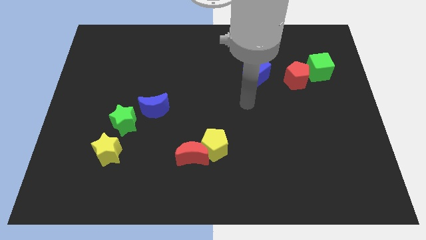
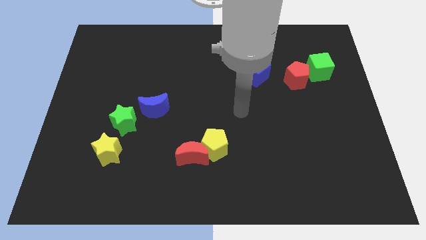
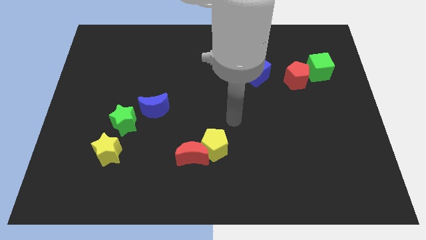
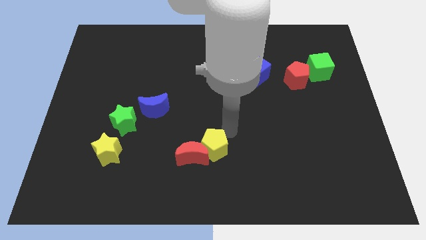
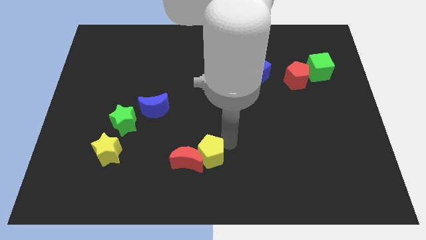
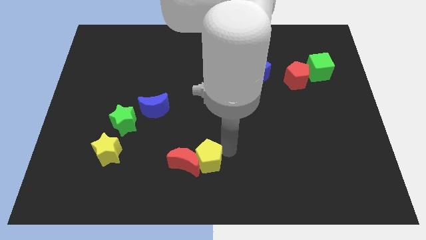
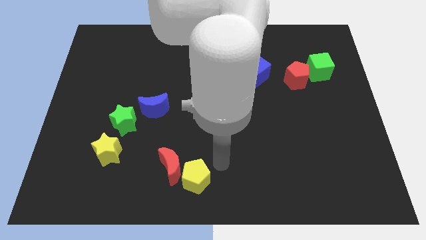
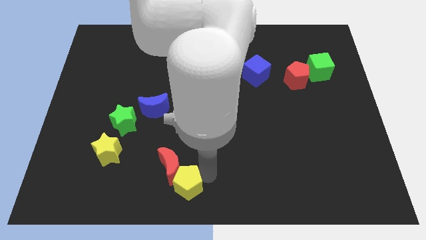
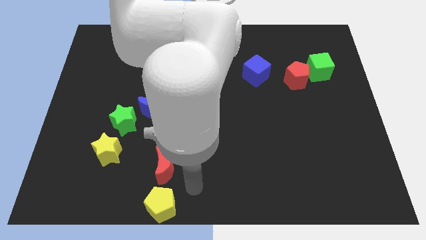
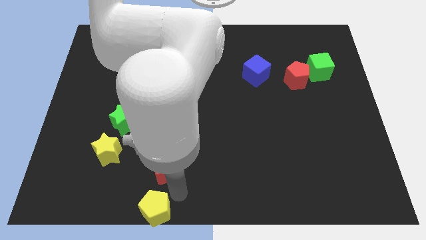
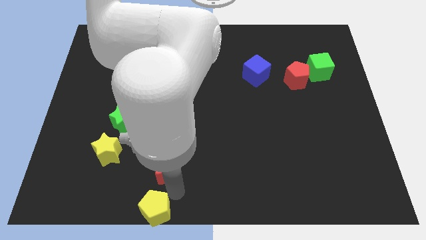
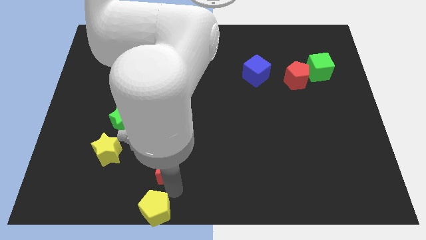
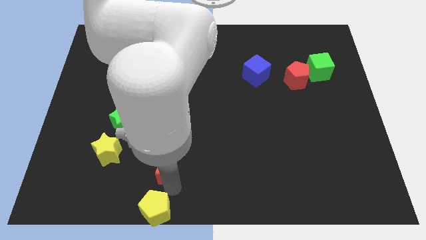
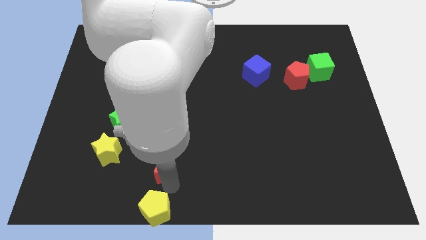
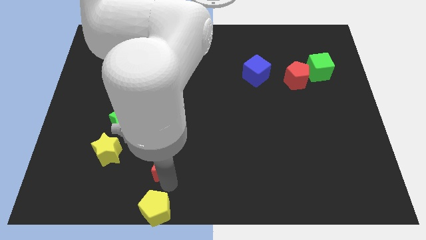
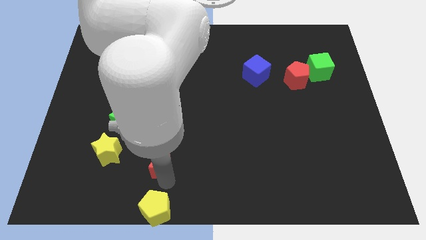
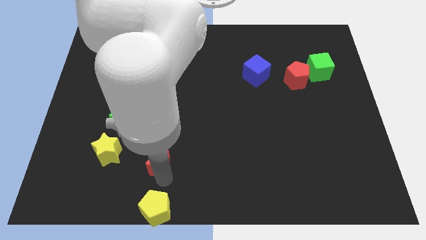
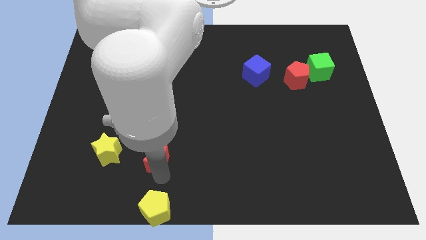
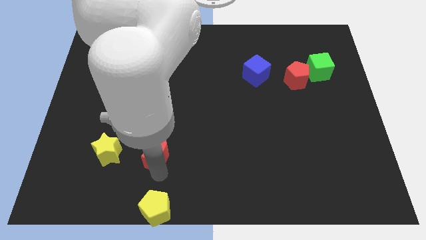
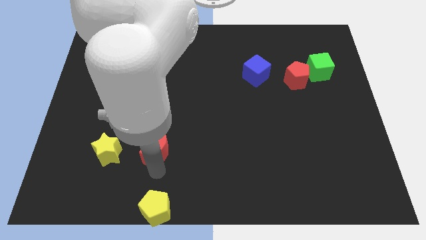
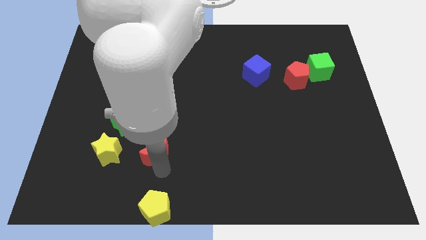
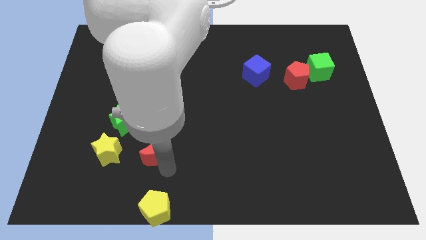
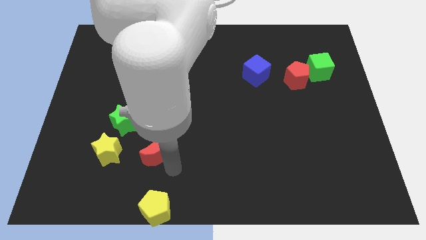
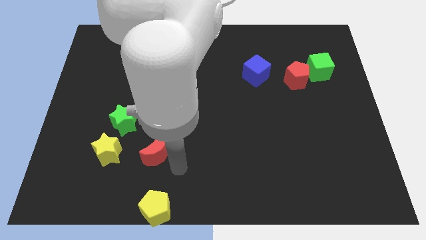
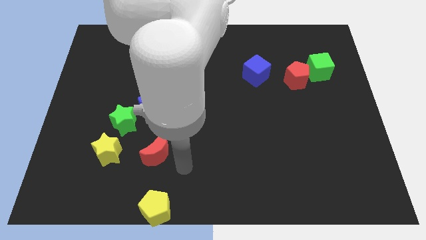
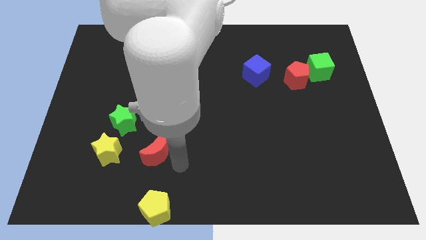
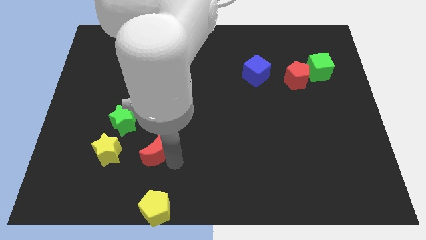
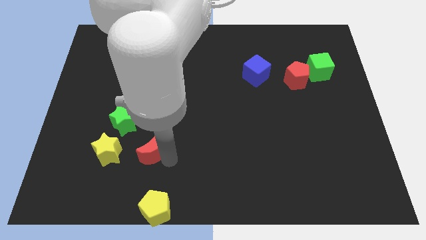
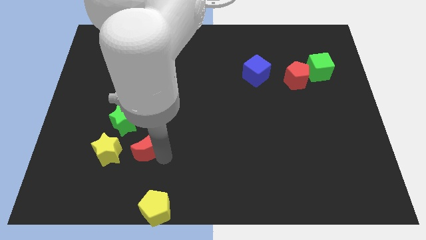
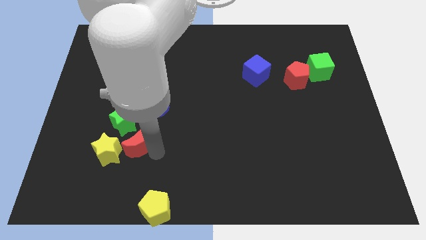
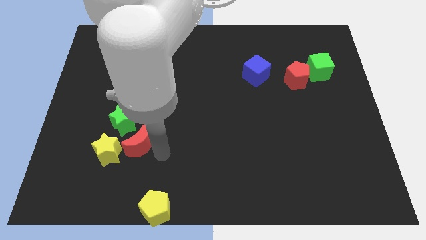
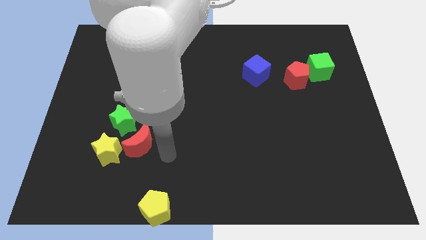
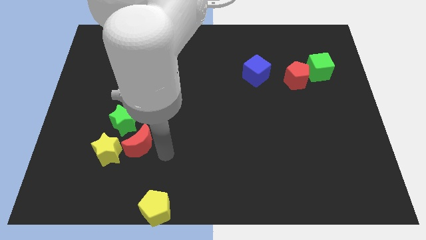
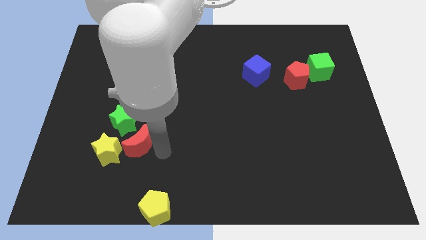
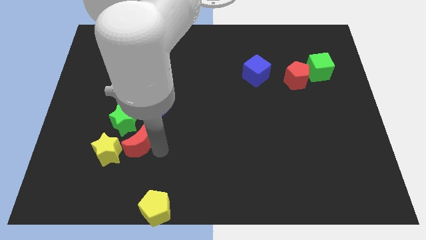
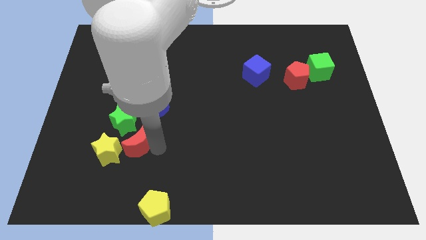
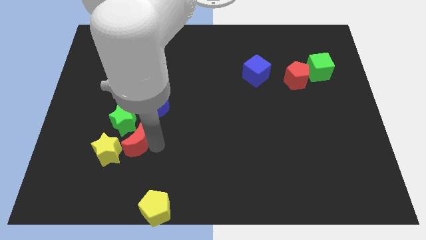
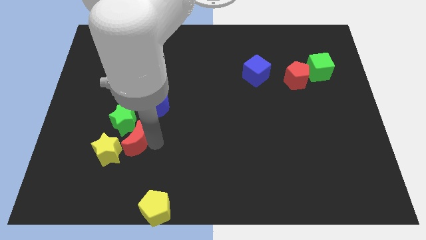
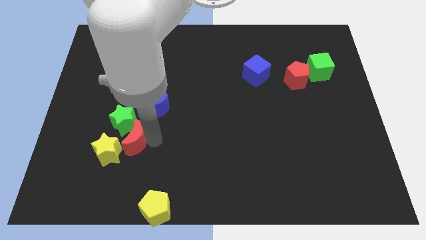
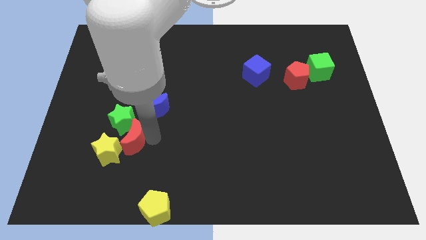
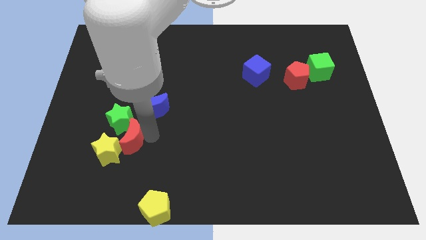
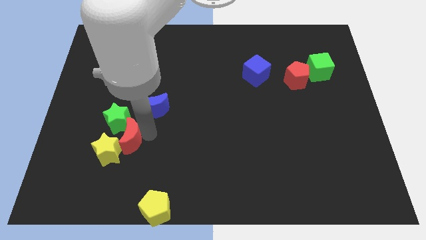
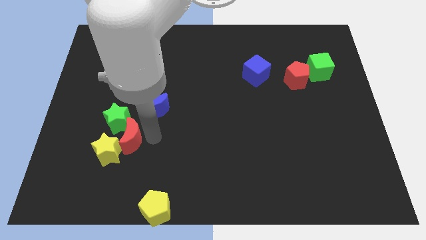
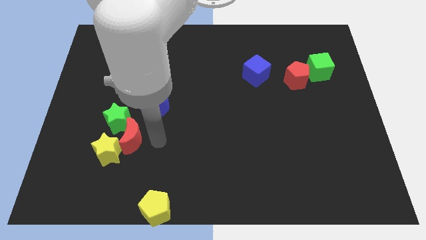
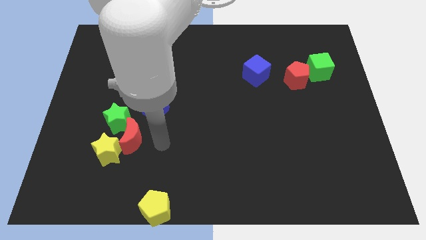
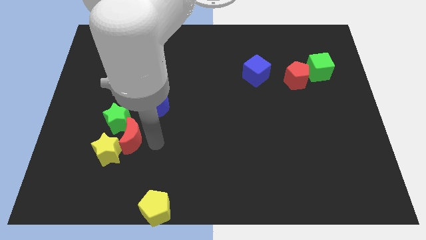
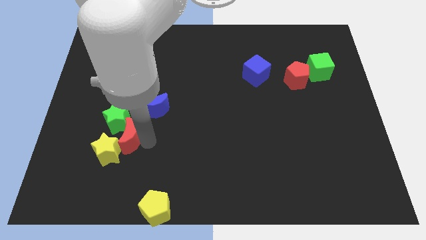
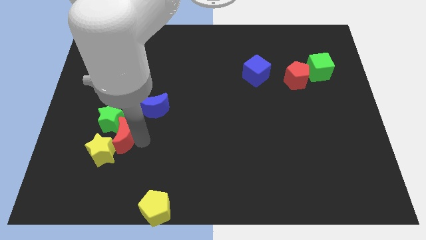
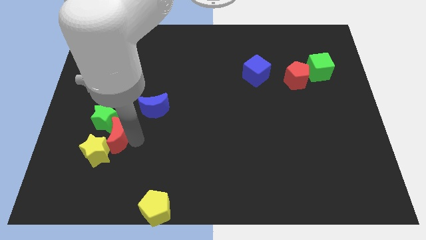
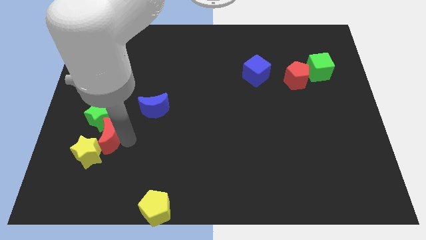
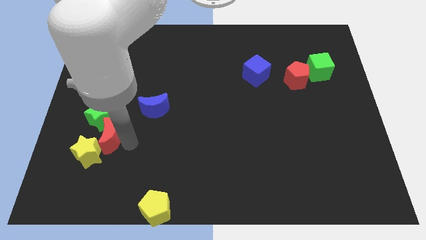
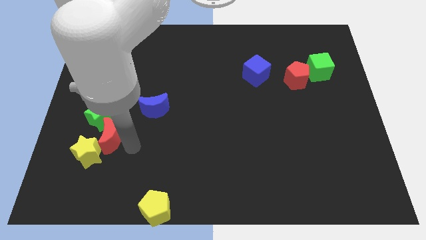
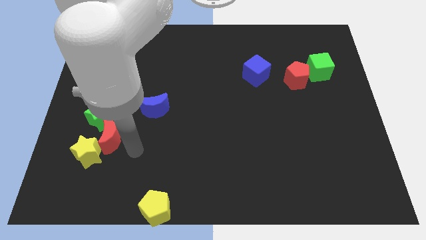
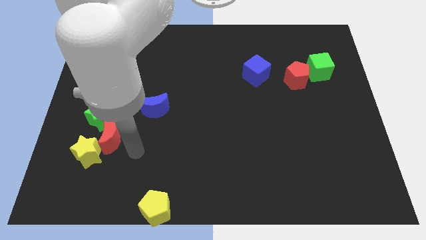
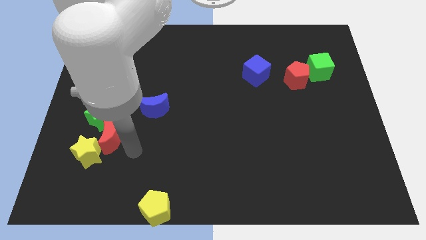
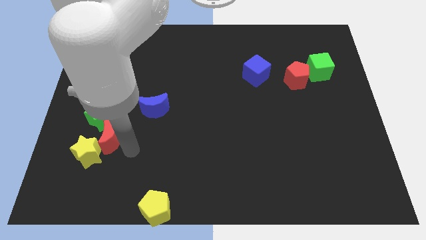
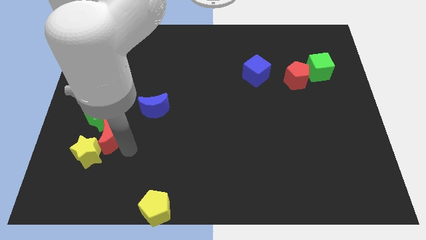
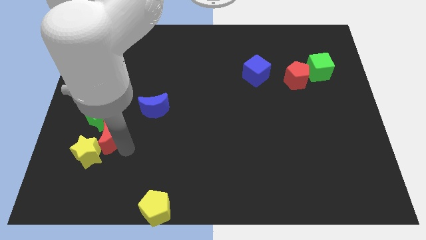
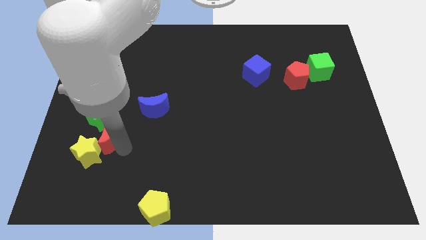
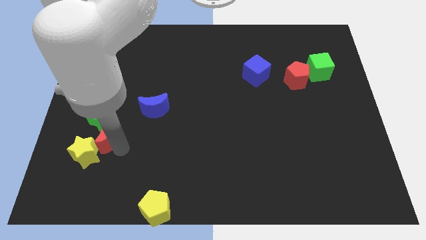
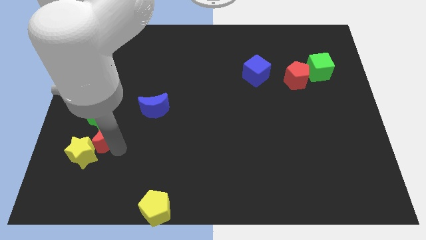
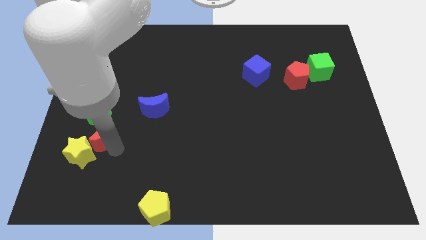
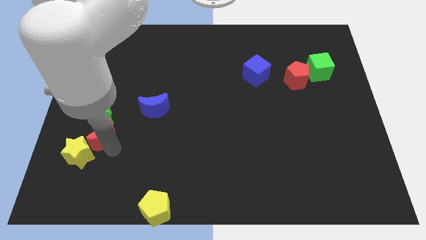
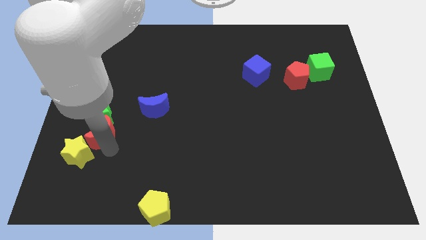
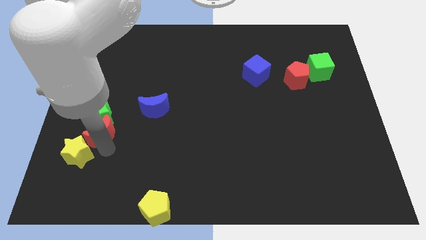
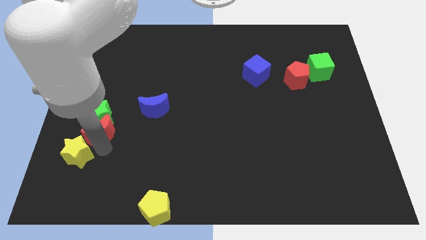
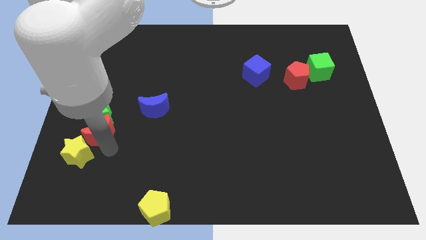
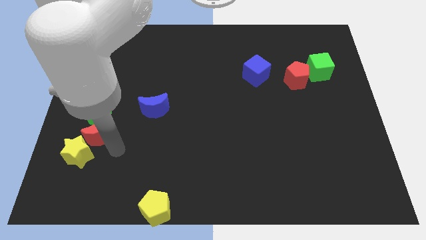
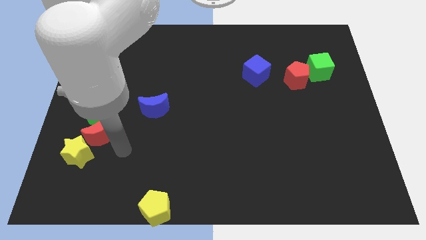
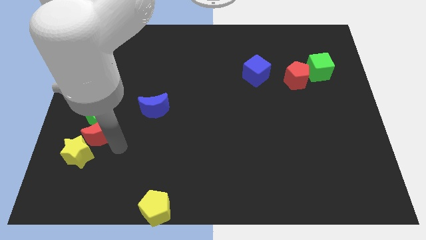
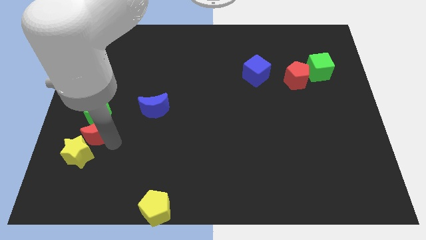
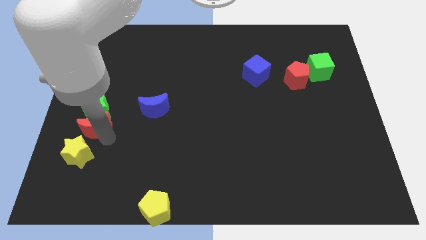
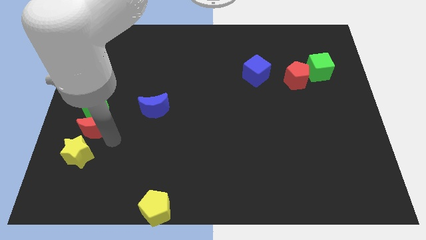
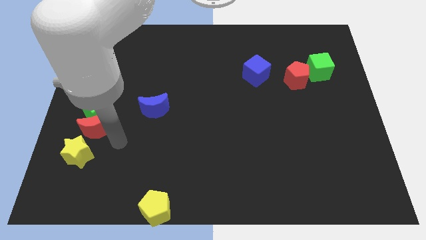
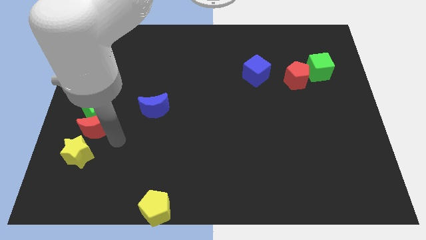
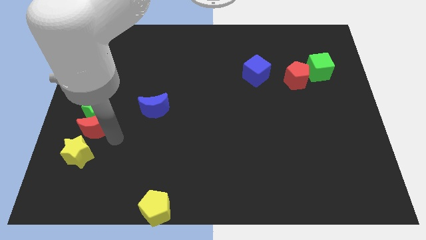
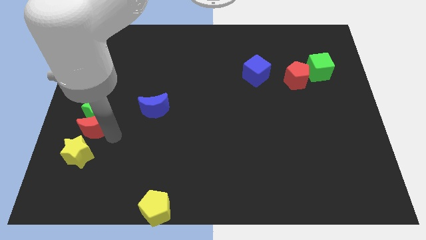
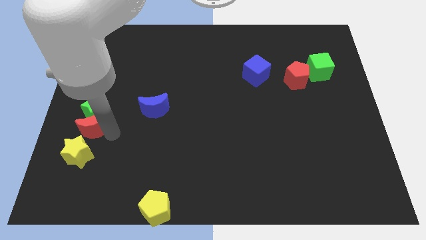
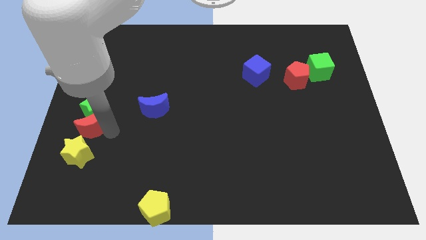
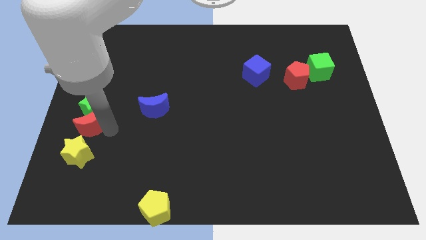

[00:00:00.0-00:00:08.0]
slide the red moon to the left side
